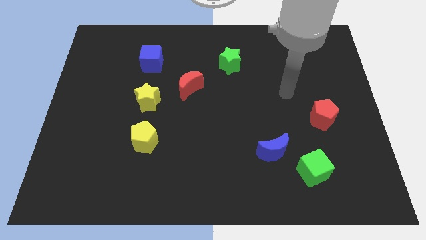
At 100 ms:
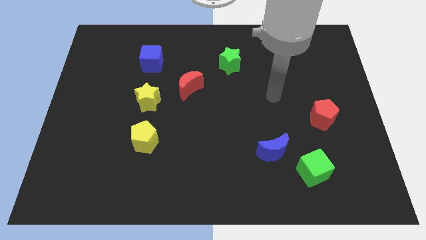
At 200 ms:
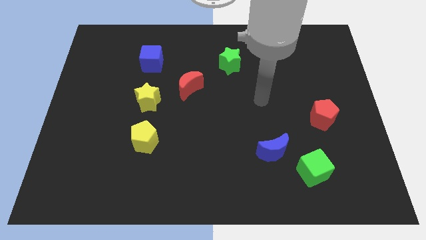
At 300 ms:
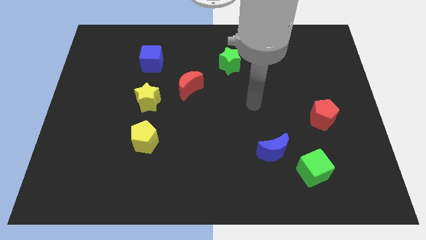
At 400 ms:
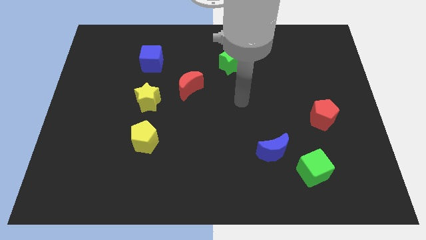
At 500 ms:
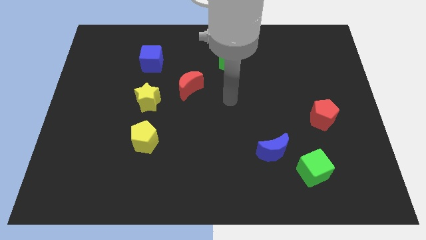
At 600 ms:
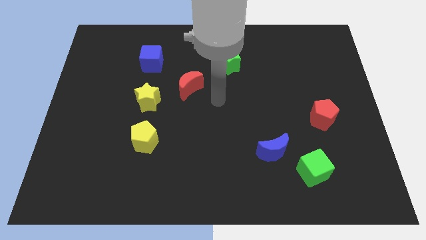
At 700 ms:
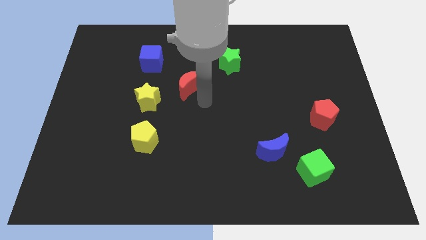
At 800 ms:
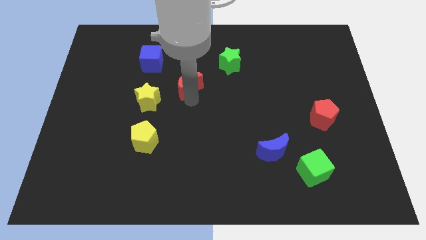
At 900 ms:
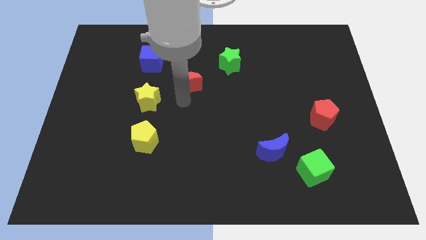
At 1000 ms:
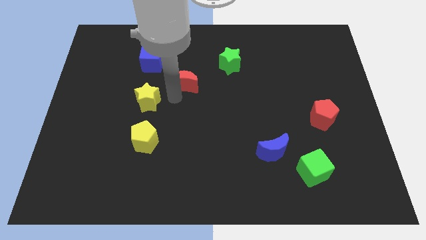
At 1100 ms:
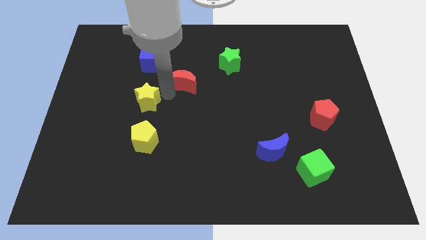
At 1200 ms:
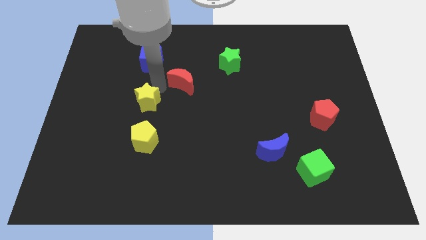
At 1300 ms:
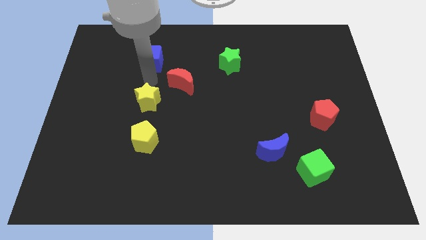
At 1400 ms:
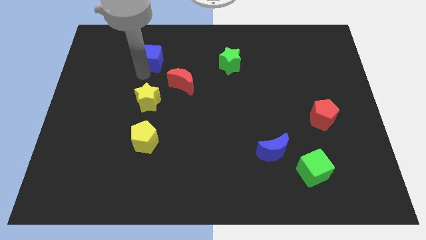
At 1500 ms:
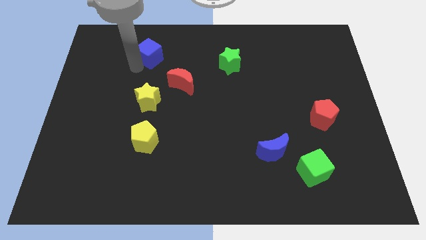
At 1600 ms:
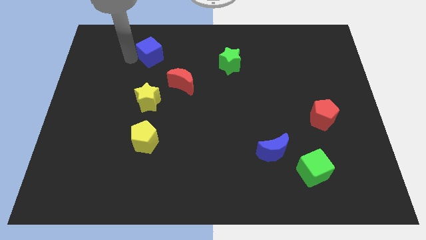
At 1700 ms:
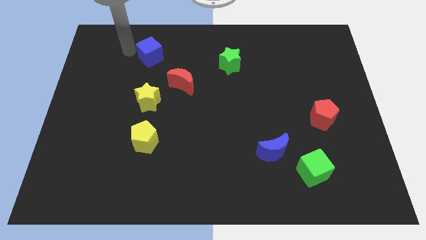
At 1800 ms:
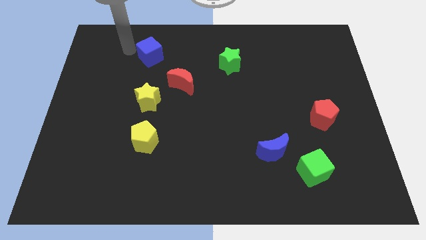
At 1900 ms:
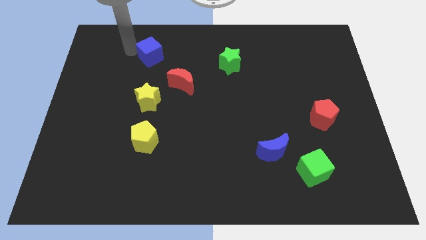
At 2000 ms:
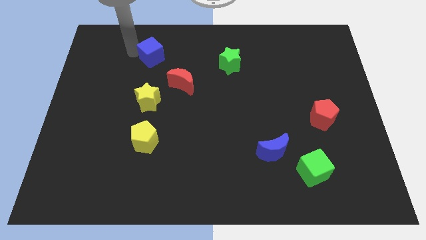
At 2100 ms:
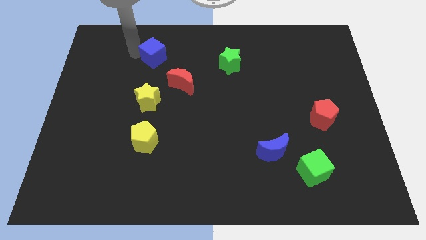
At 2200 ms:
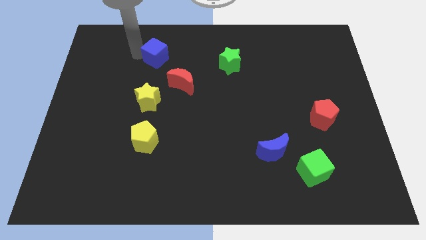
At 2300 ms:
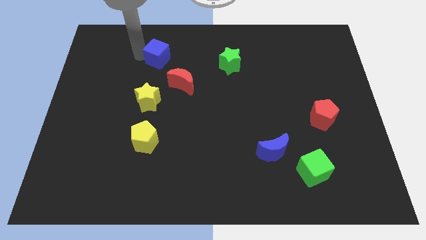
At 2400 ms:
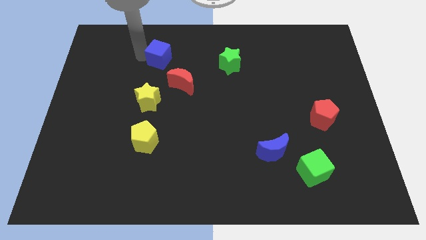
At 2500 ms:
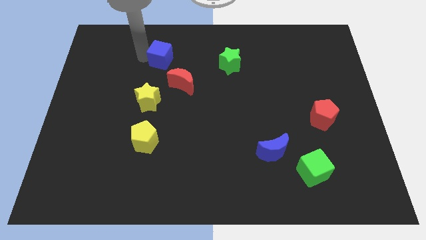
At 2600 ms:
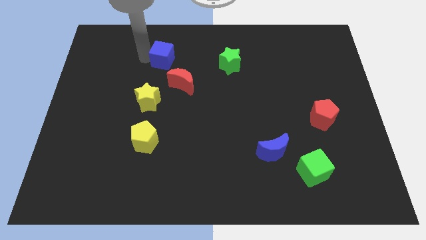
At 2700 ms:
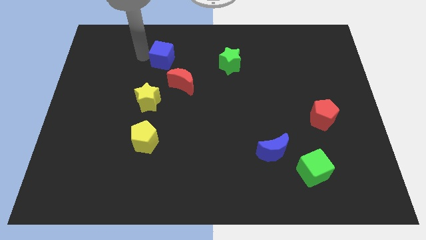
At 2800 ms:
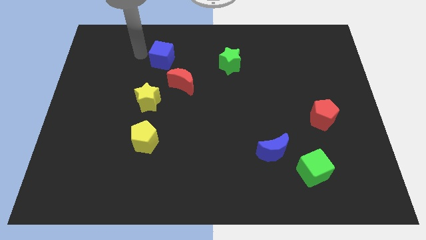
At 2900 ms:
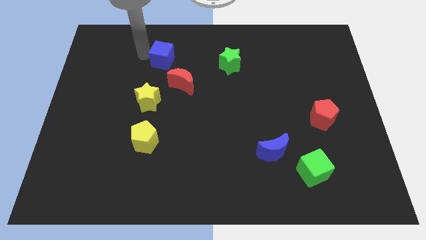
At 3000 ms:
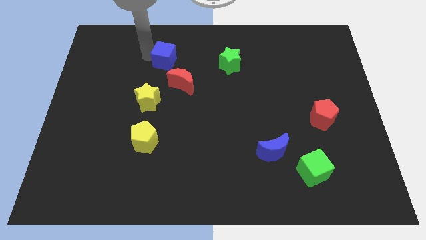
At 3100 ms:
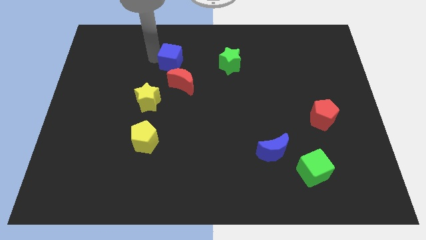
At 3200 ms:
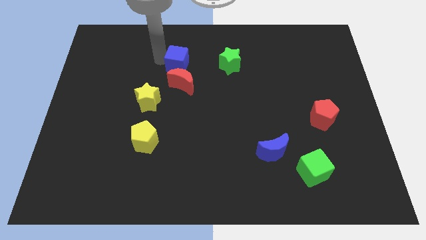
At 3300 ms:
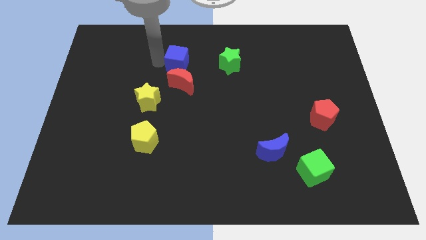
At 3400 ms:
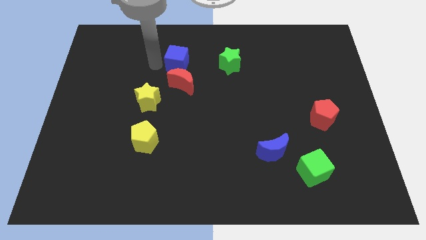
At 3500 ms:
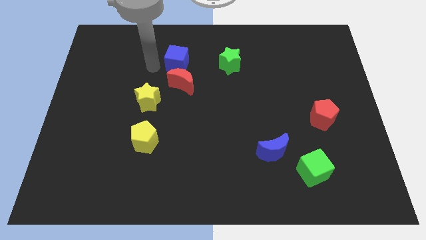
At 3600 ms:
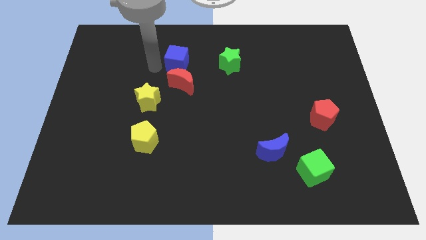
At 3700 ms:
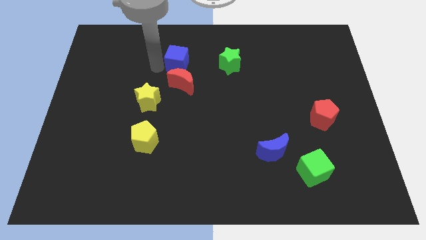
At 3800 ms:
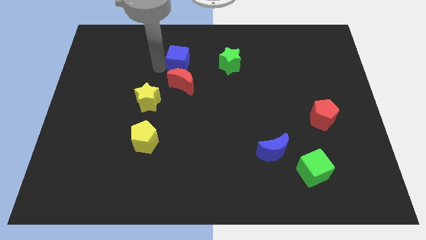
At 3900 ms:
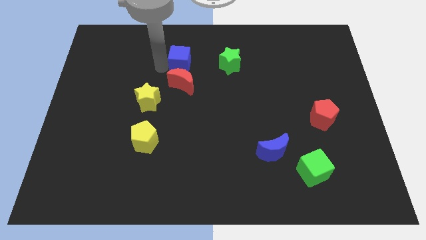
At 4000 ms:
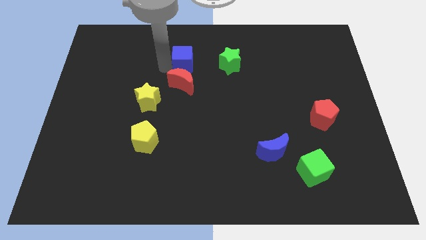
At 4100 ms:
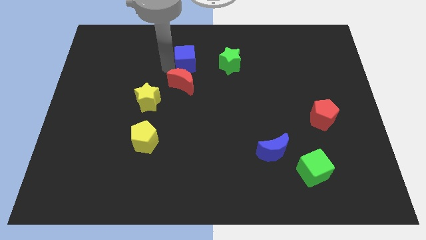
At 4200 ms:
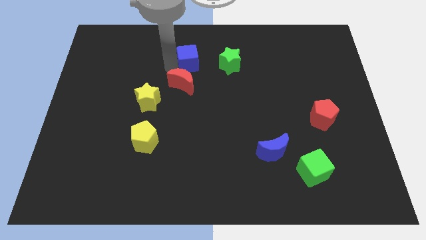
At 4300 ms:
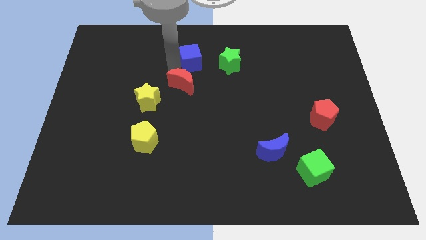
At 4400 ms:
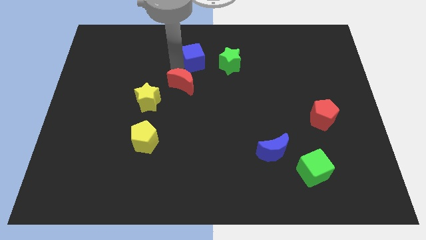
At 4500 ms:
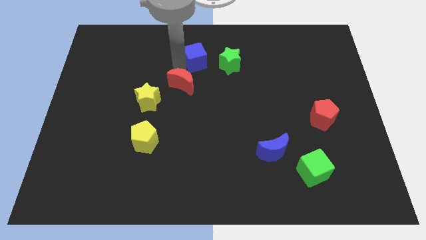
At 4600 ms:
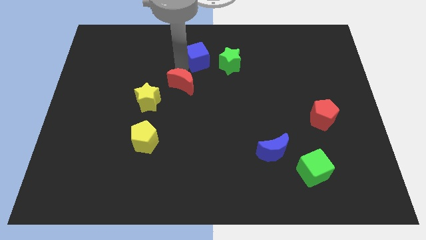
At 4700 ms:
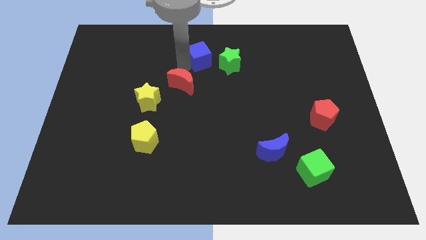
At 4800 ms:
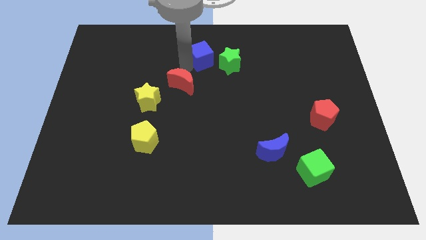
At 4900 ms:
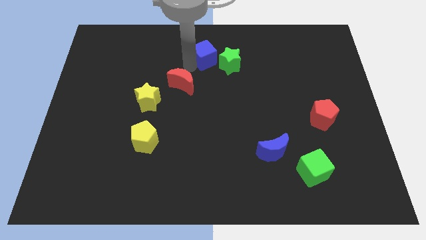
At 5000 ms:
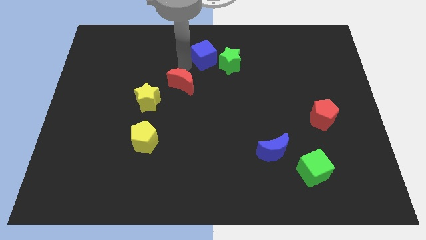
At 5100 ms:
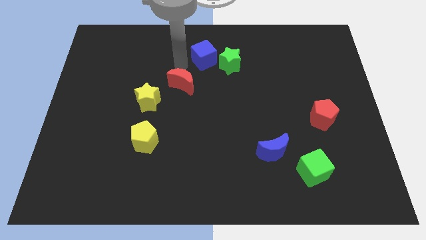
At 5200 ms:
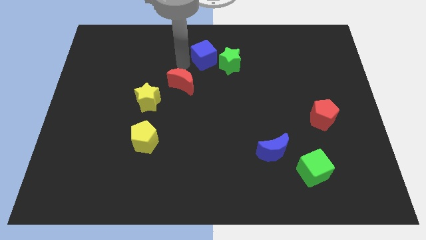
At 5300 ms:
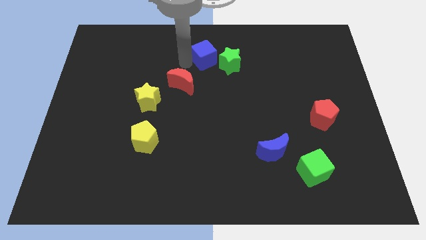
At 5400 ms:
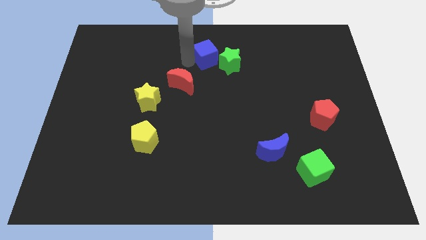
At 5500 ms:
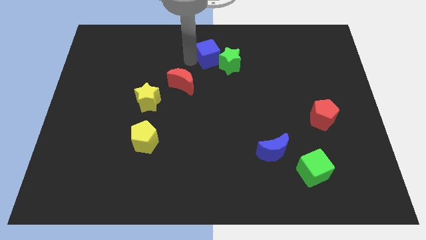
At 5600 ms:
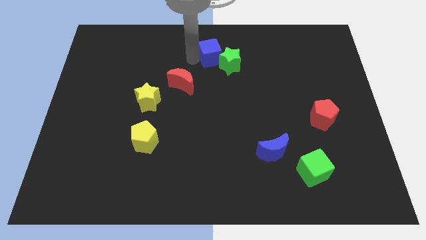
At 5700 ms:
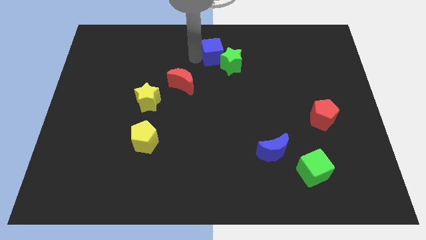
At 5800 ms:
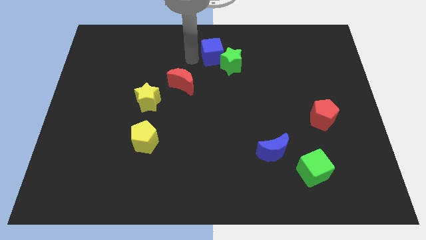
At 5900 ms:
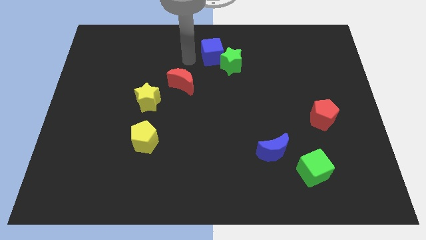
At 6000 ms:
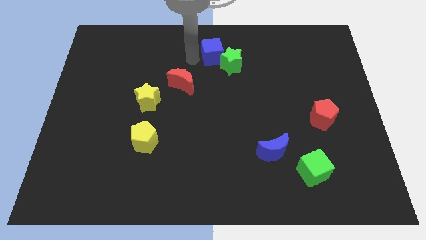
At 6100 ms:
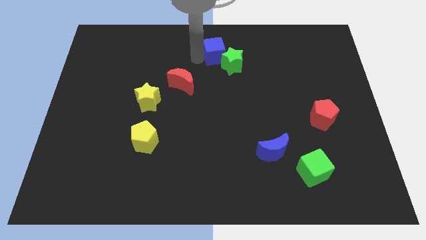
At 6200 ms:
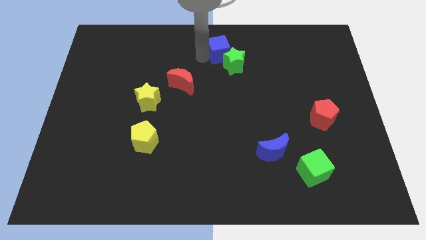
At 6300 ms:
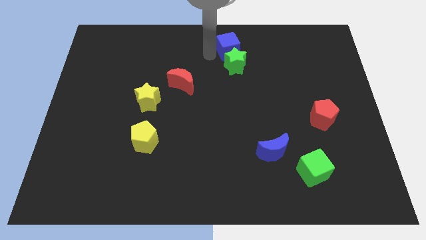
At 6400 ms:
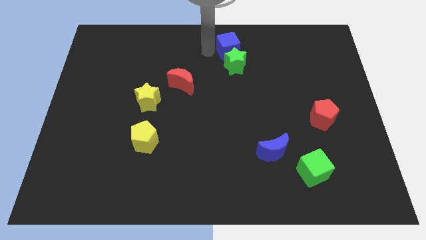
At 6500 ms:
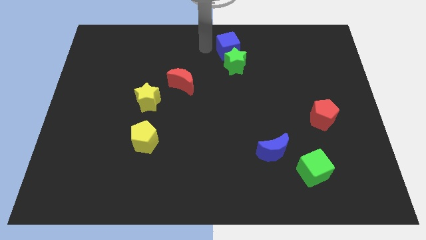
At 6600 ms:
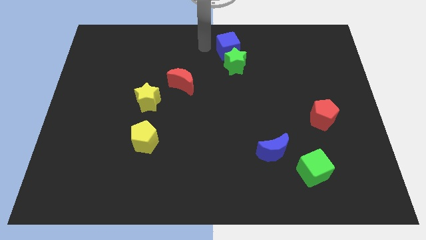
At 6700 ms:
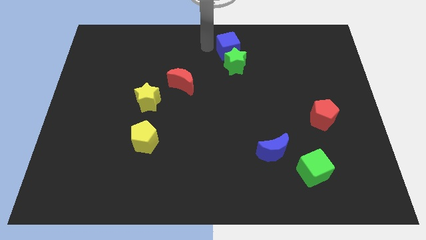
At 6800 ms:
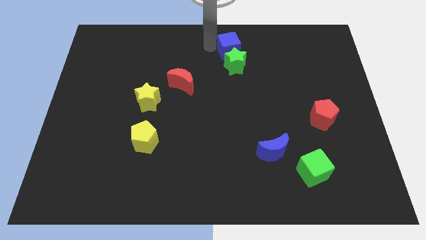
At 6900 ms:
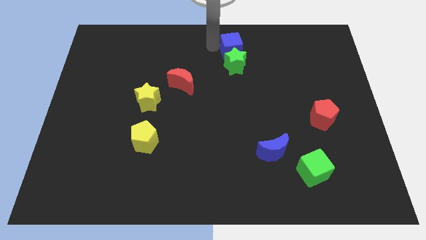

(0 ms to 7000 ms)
push the blue cube right

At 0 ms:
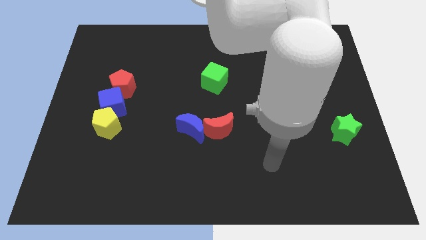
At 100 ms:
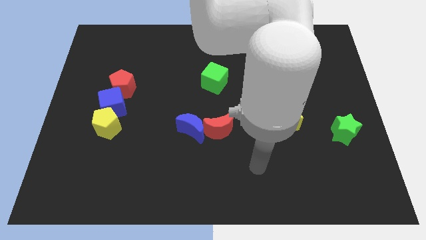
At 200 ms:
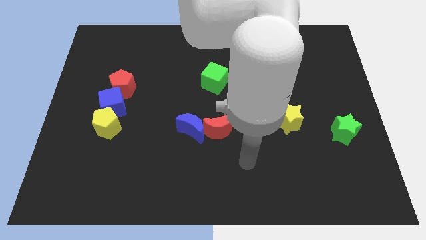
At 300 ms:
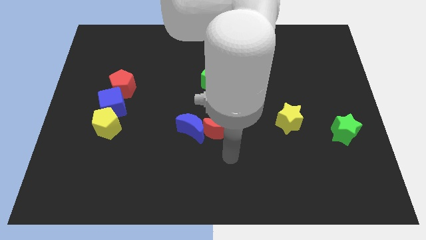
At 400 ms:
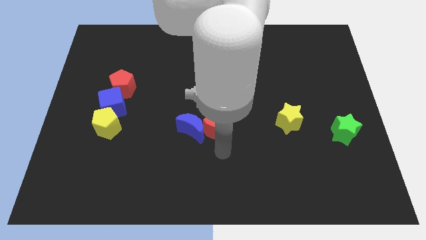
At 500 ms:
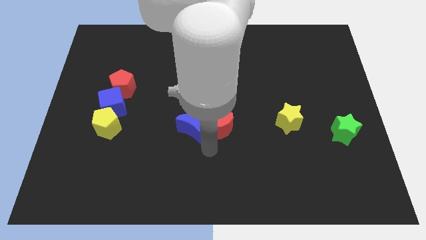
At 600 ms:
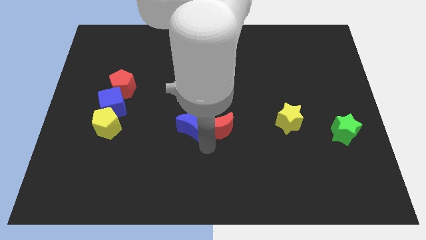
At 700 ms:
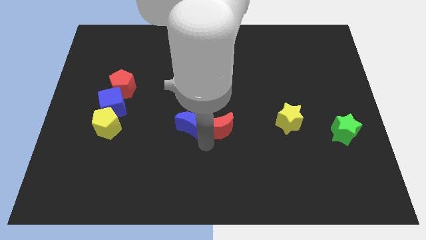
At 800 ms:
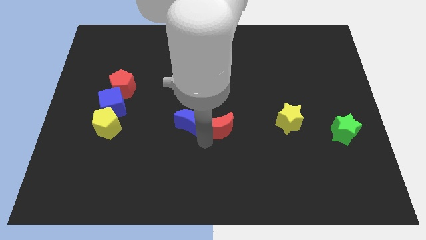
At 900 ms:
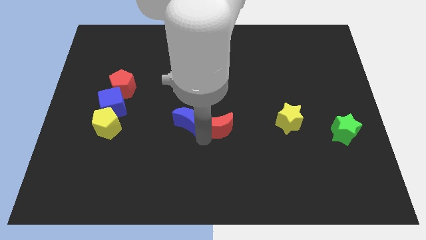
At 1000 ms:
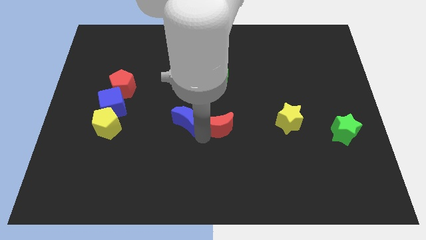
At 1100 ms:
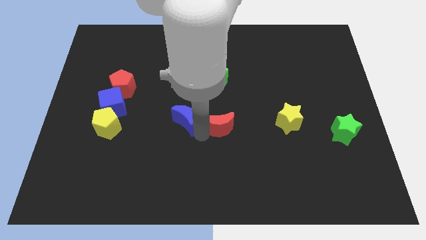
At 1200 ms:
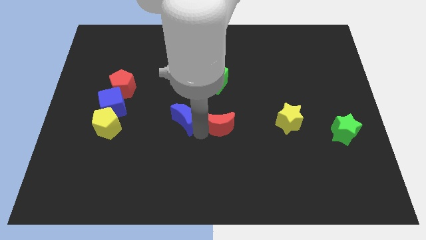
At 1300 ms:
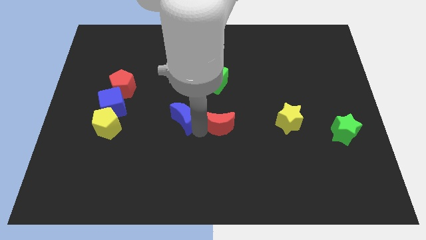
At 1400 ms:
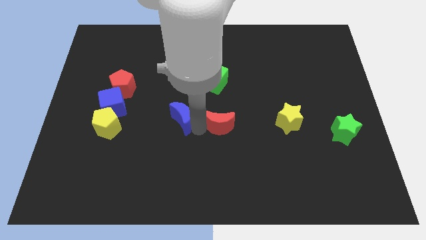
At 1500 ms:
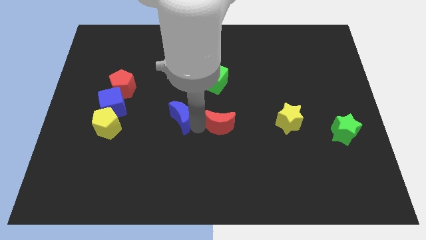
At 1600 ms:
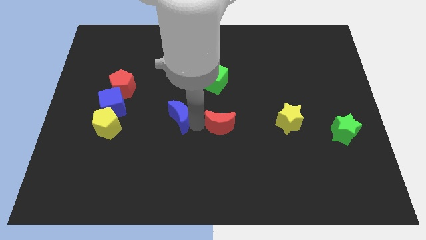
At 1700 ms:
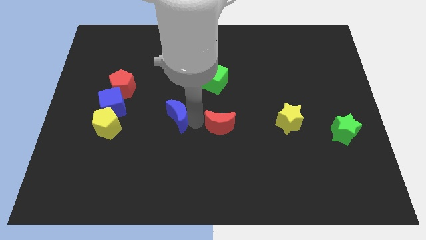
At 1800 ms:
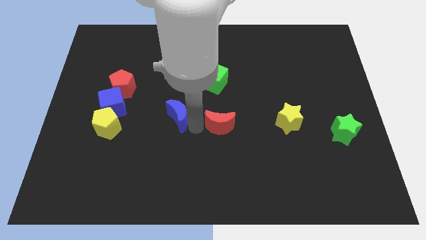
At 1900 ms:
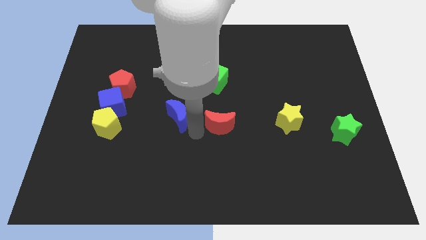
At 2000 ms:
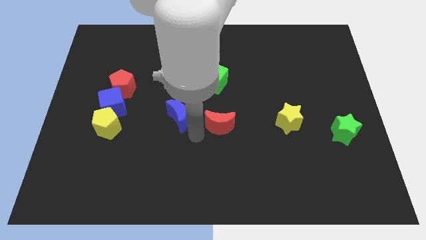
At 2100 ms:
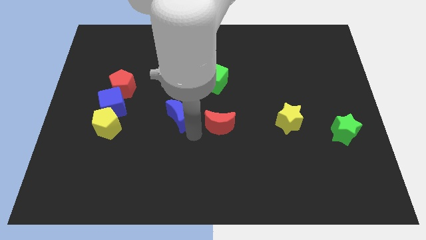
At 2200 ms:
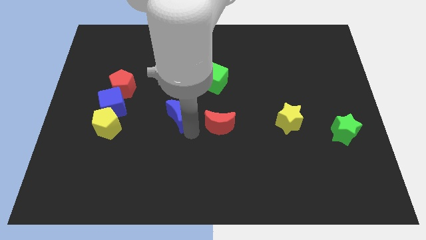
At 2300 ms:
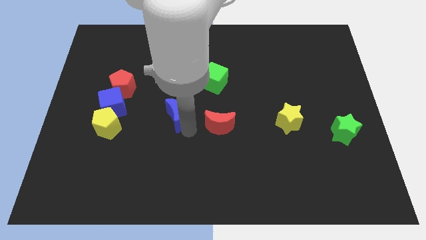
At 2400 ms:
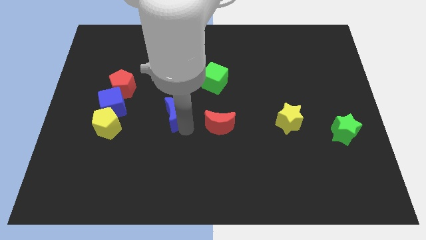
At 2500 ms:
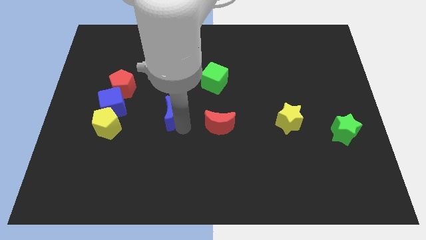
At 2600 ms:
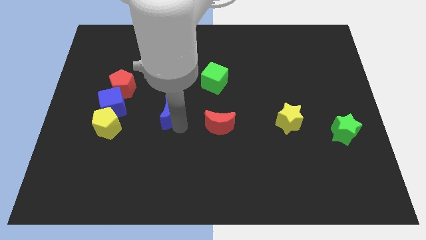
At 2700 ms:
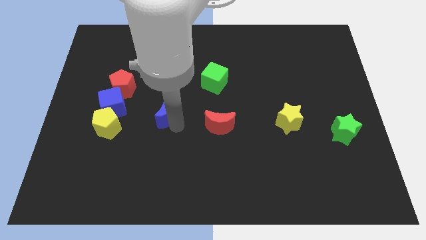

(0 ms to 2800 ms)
slightly move the blue moon diagonally upwards and left
